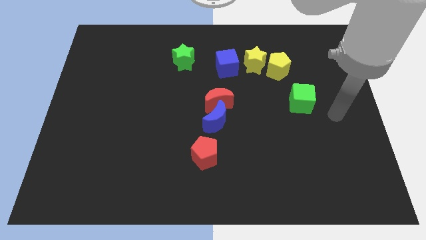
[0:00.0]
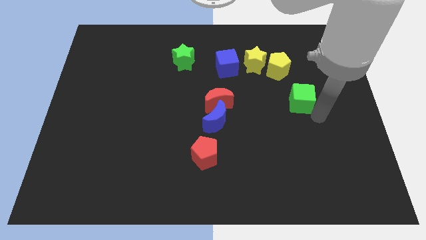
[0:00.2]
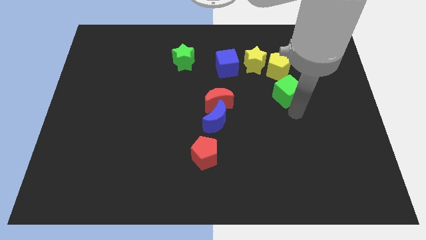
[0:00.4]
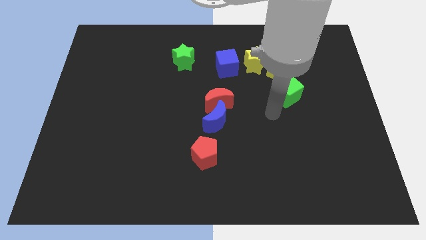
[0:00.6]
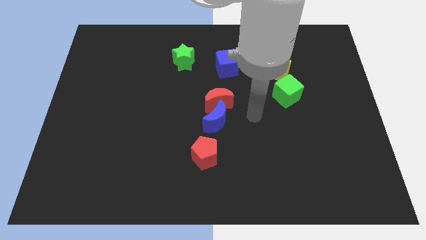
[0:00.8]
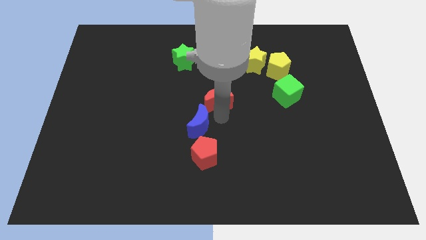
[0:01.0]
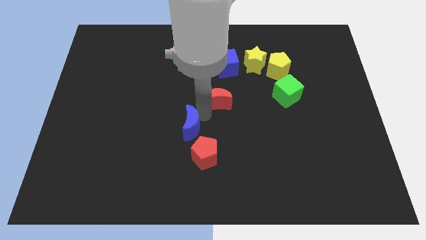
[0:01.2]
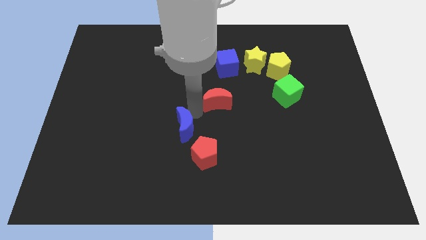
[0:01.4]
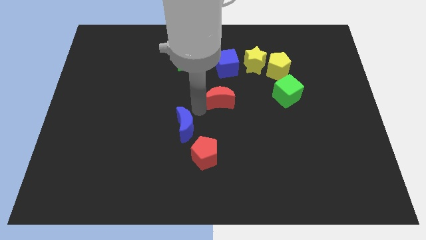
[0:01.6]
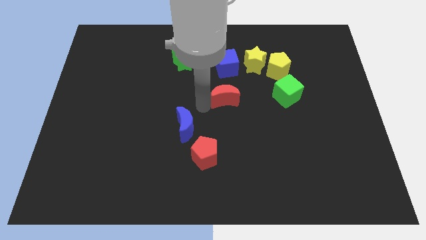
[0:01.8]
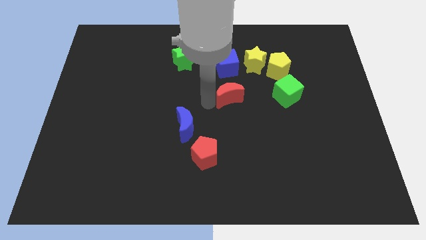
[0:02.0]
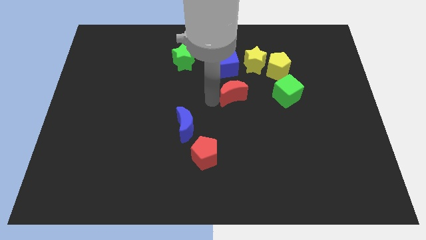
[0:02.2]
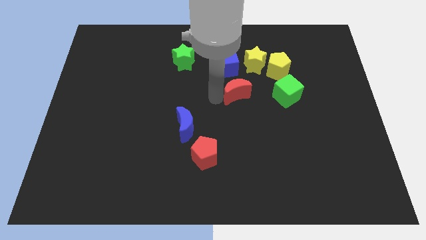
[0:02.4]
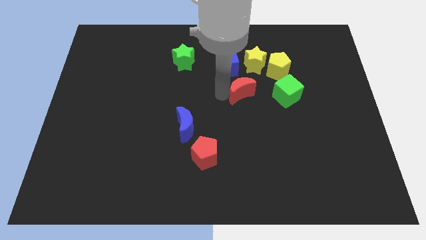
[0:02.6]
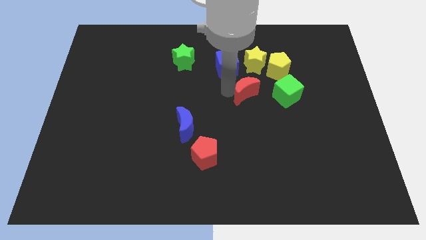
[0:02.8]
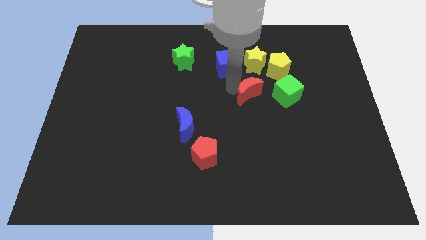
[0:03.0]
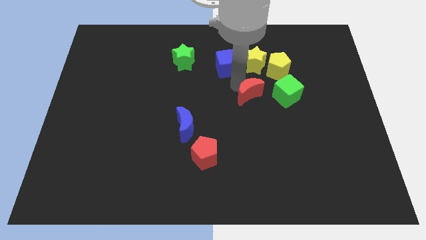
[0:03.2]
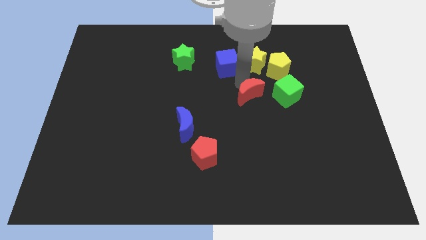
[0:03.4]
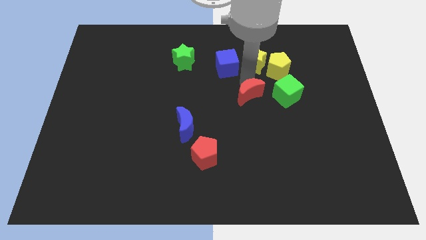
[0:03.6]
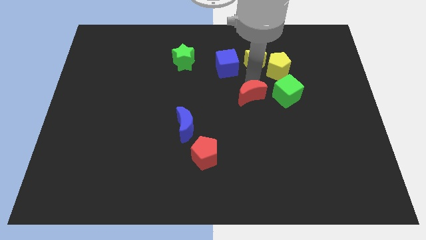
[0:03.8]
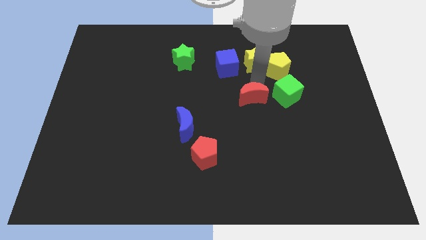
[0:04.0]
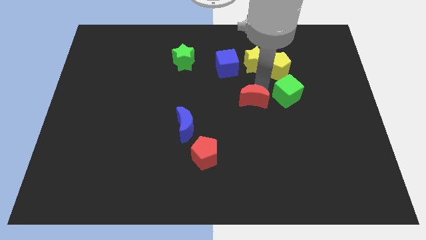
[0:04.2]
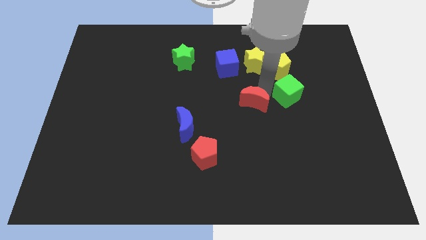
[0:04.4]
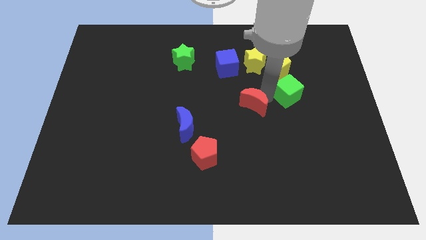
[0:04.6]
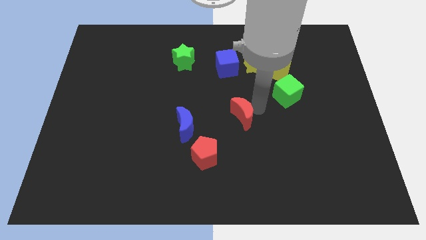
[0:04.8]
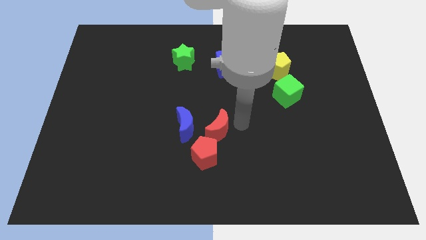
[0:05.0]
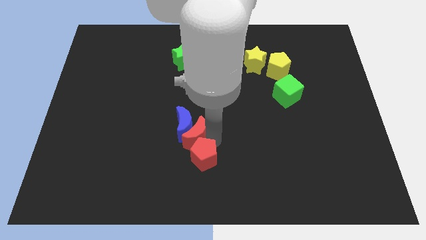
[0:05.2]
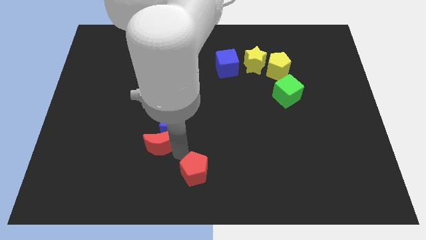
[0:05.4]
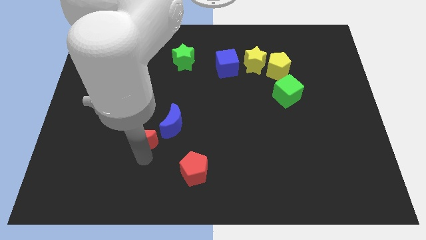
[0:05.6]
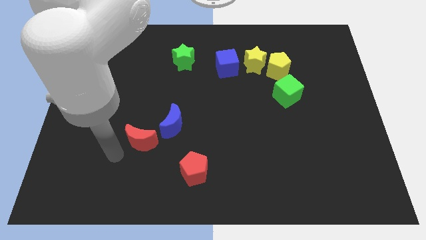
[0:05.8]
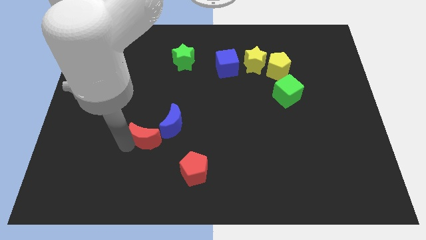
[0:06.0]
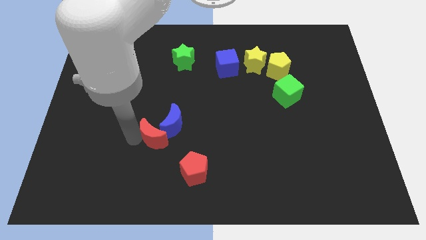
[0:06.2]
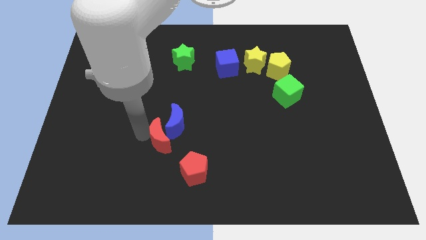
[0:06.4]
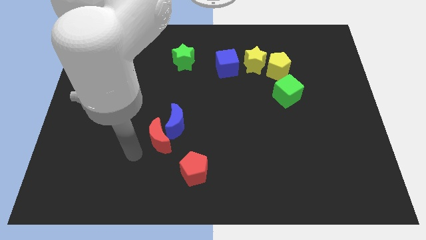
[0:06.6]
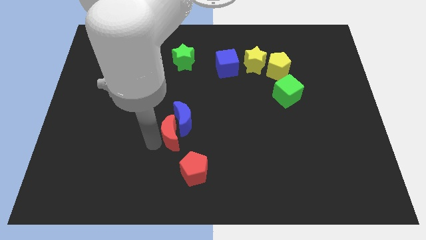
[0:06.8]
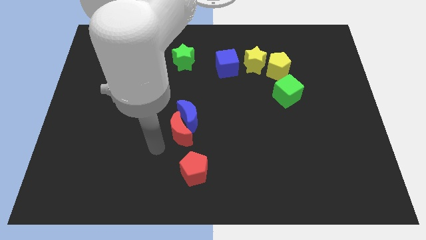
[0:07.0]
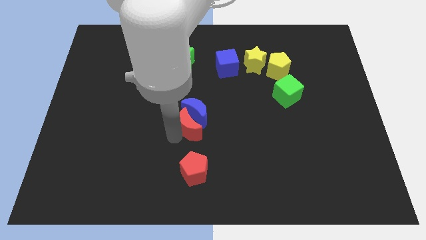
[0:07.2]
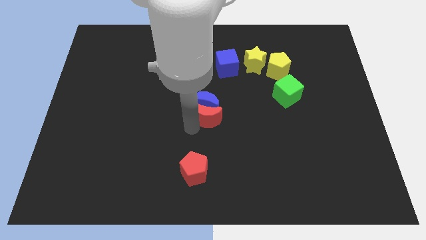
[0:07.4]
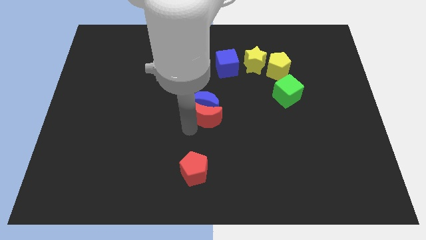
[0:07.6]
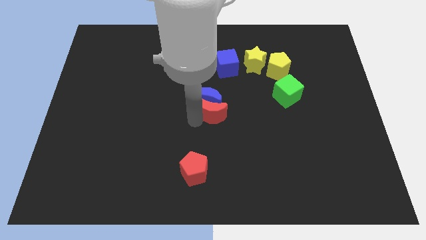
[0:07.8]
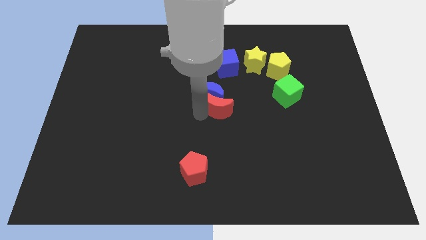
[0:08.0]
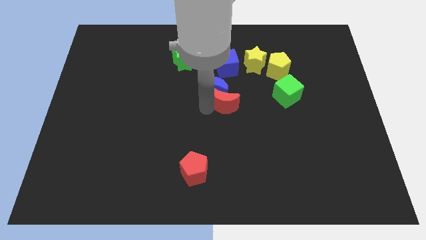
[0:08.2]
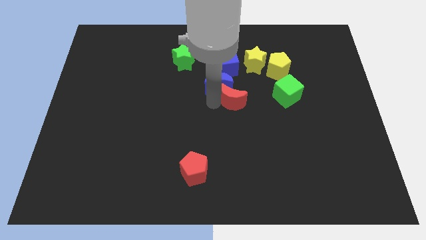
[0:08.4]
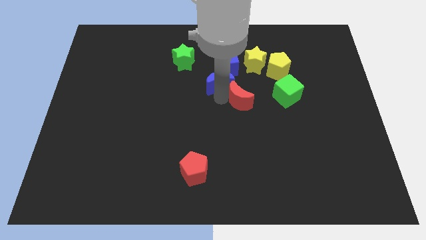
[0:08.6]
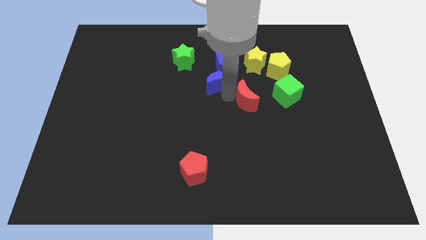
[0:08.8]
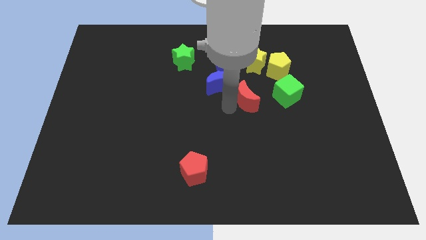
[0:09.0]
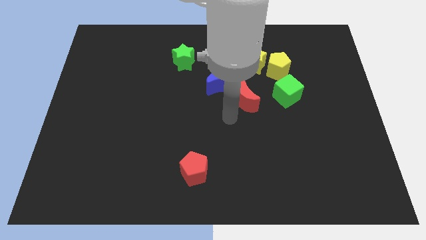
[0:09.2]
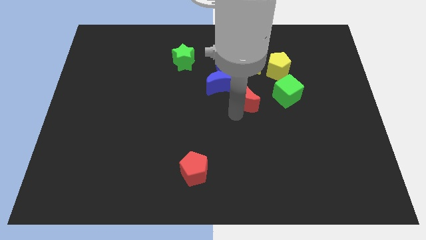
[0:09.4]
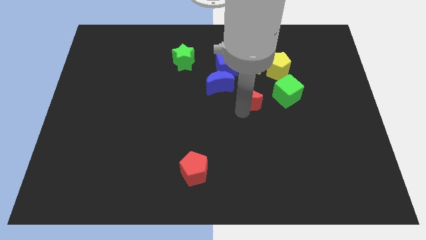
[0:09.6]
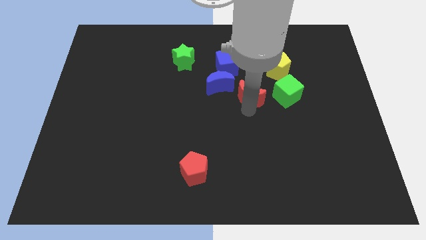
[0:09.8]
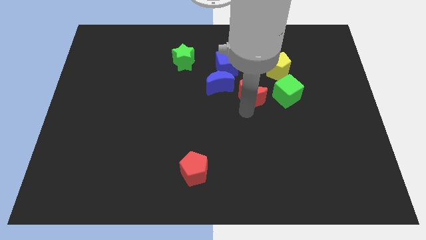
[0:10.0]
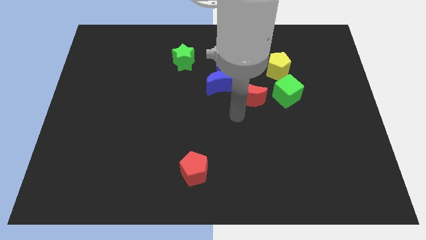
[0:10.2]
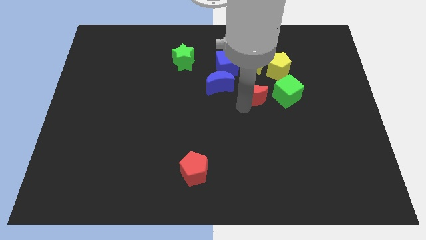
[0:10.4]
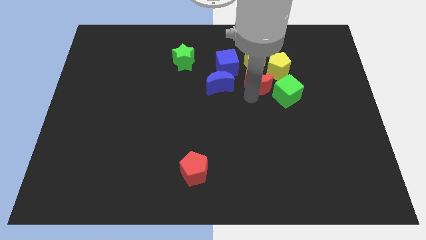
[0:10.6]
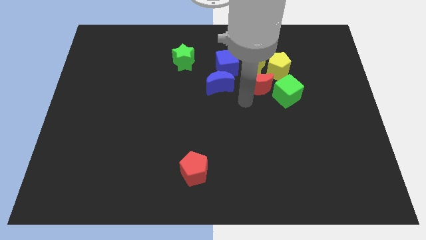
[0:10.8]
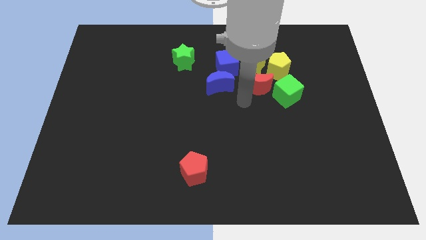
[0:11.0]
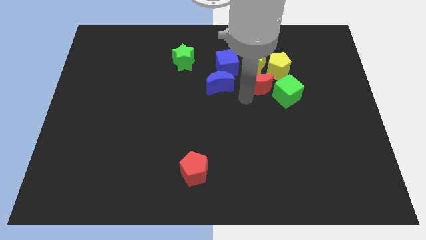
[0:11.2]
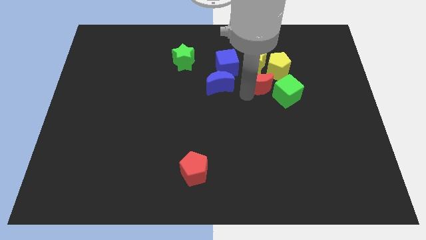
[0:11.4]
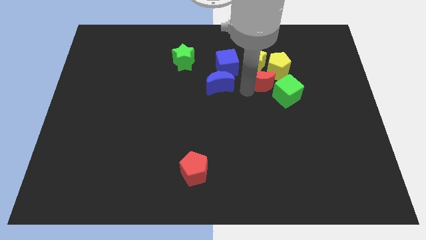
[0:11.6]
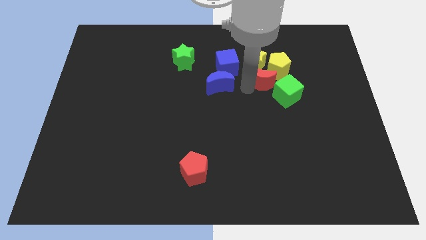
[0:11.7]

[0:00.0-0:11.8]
slide the red moon to the yellow pentagon

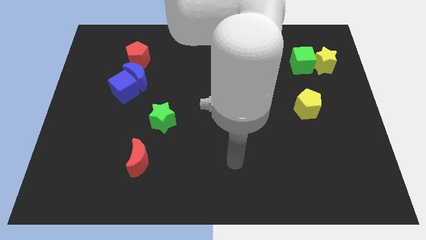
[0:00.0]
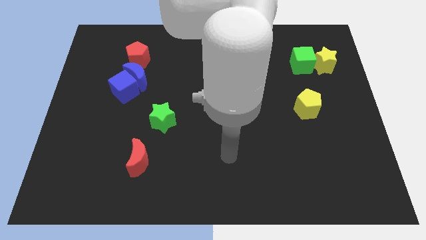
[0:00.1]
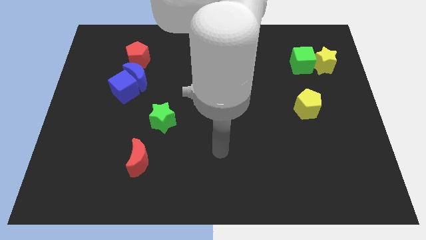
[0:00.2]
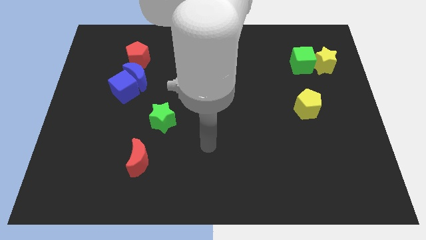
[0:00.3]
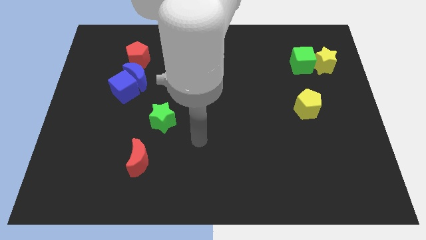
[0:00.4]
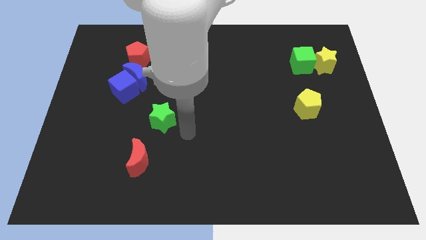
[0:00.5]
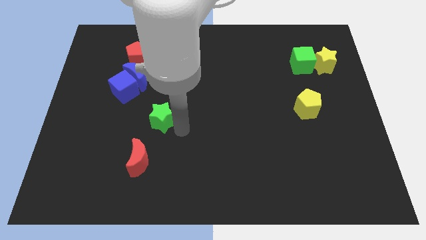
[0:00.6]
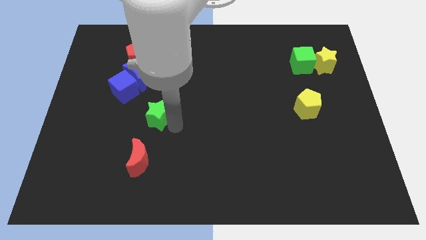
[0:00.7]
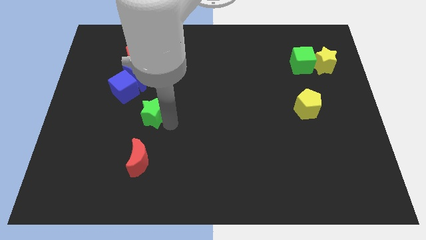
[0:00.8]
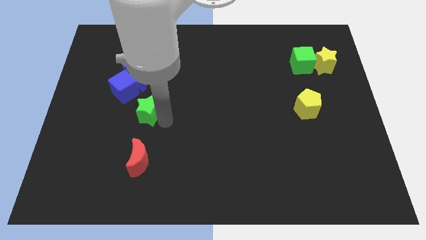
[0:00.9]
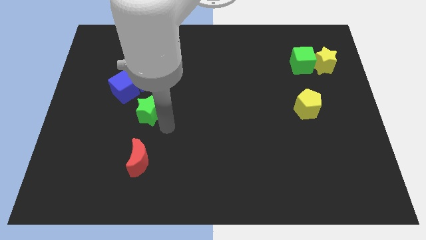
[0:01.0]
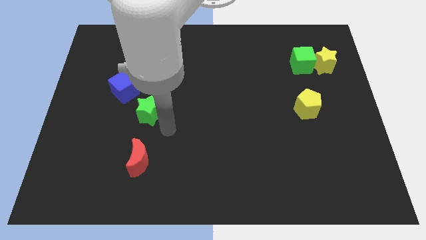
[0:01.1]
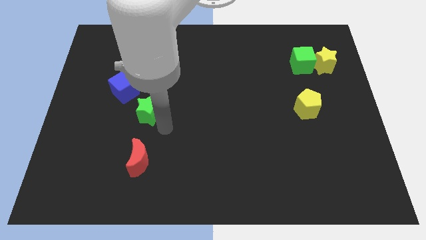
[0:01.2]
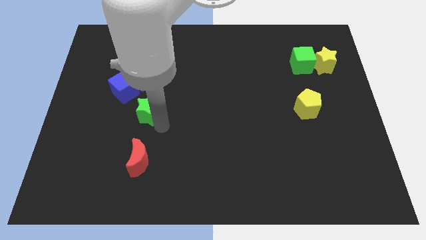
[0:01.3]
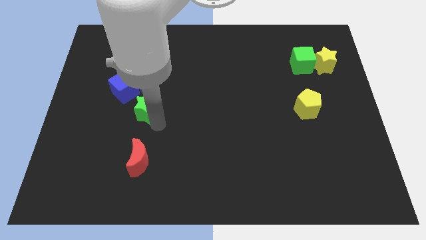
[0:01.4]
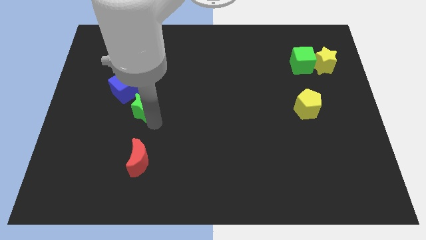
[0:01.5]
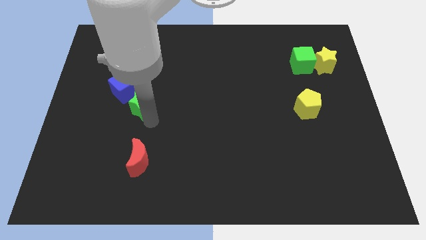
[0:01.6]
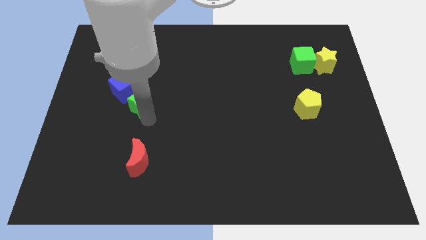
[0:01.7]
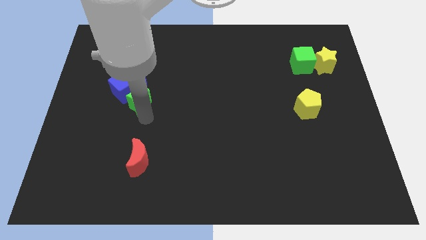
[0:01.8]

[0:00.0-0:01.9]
push the green star next to the blue cube
